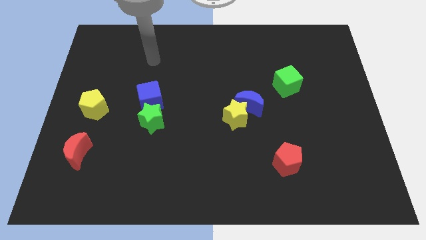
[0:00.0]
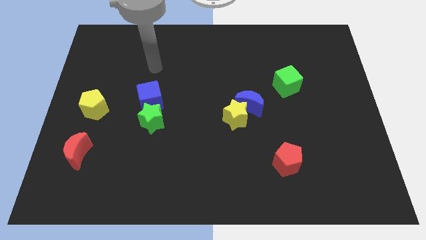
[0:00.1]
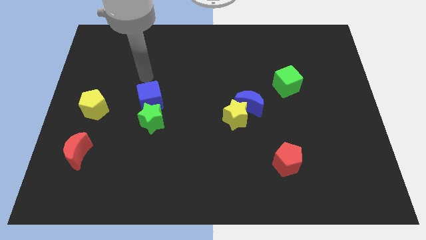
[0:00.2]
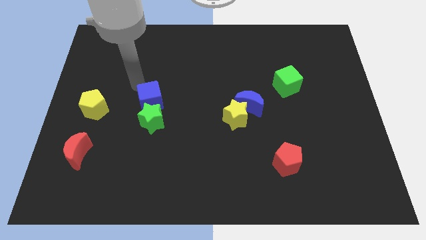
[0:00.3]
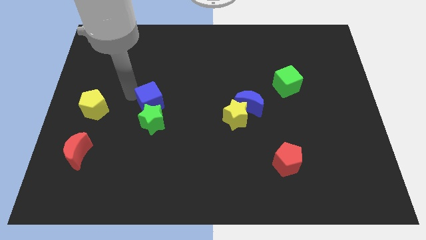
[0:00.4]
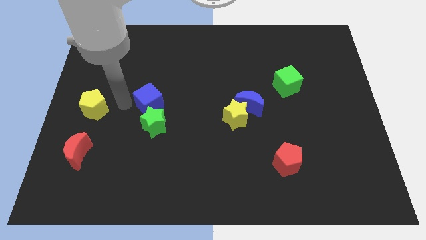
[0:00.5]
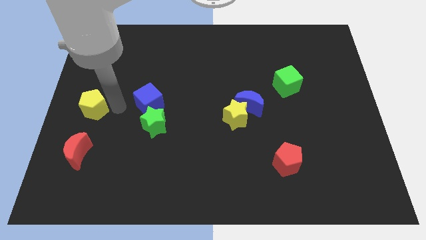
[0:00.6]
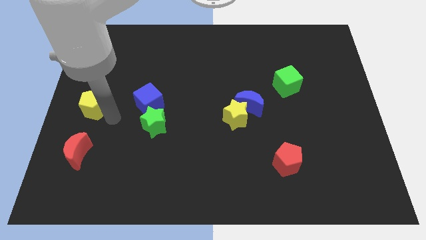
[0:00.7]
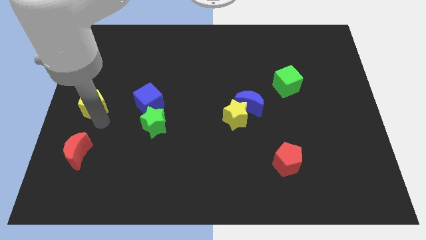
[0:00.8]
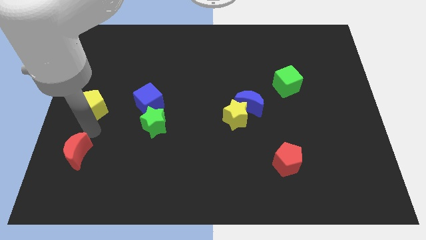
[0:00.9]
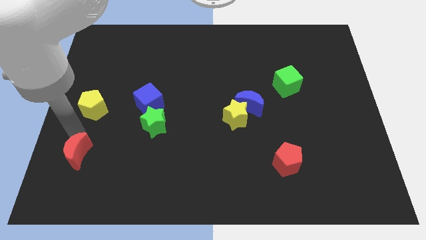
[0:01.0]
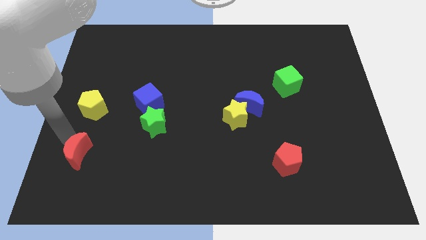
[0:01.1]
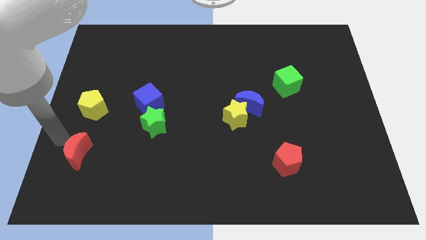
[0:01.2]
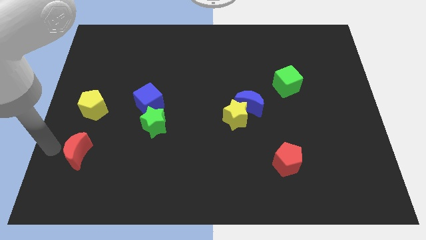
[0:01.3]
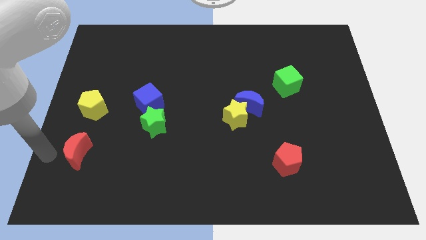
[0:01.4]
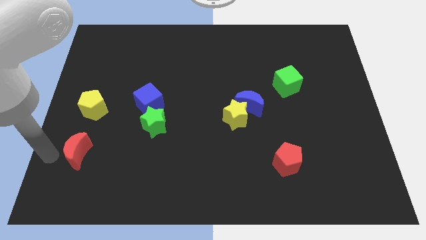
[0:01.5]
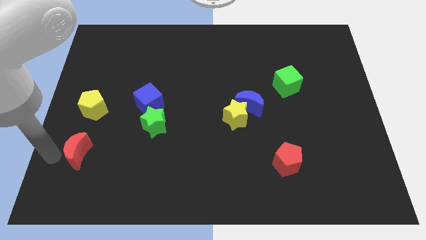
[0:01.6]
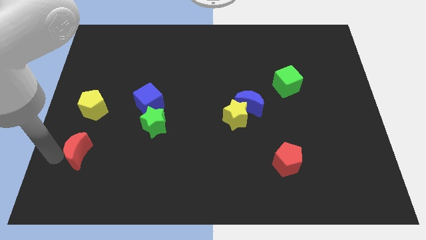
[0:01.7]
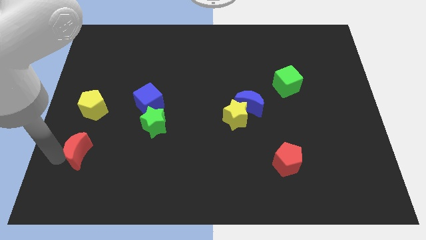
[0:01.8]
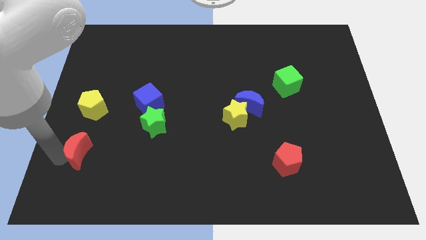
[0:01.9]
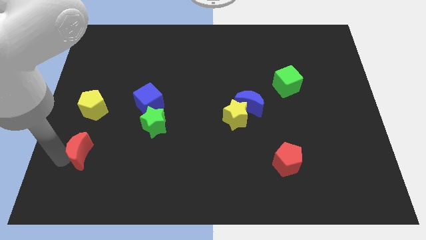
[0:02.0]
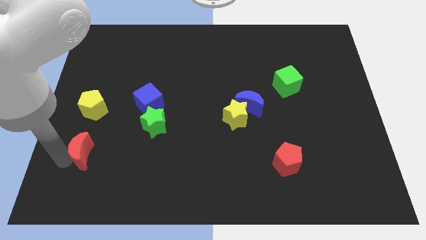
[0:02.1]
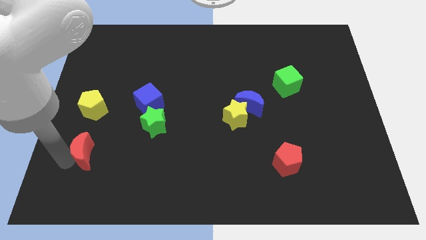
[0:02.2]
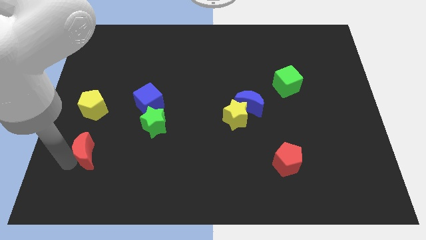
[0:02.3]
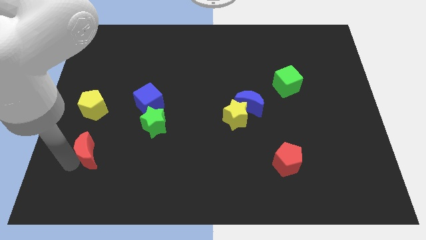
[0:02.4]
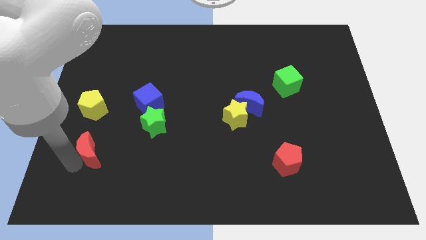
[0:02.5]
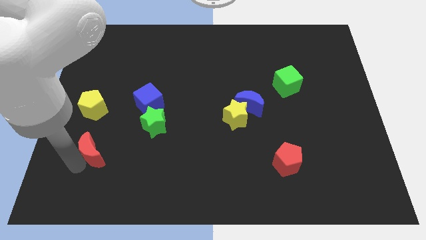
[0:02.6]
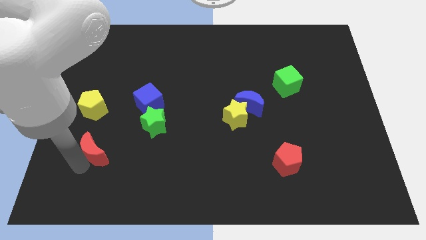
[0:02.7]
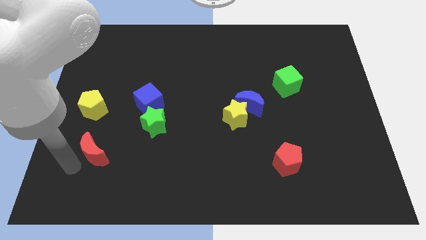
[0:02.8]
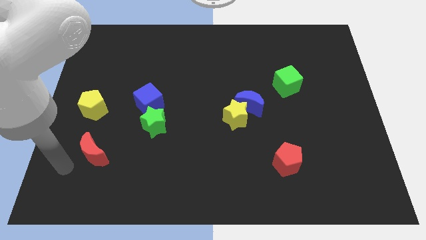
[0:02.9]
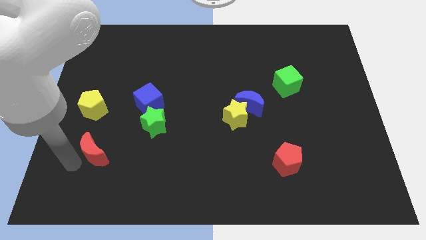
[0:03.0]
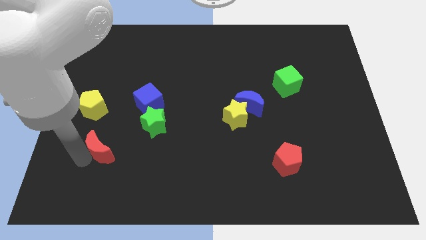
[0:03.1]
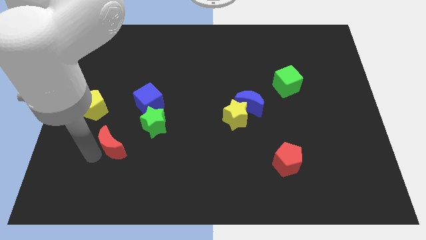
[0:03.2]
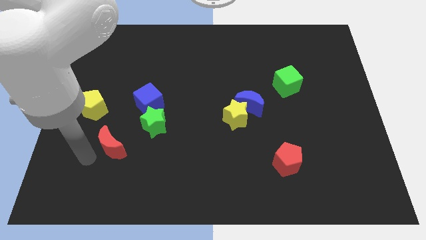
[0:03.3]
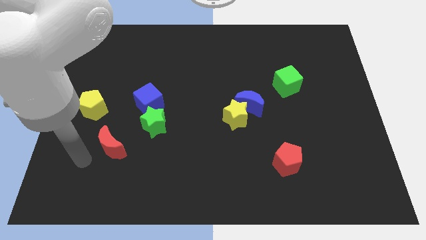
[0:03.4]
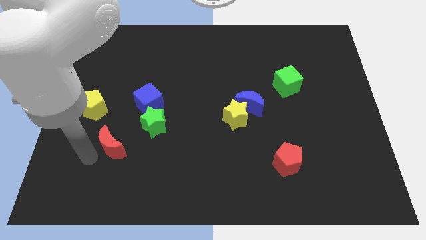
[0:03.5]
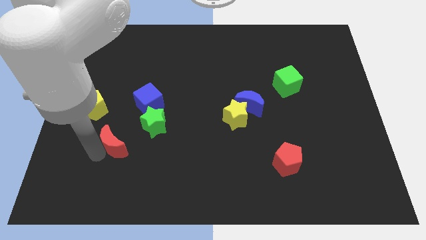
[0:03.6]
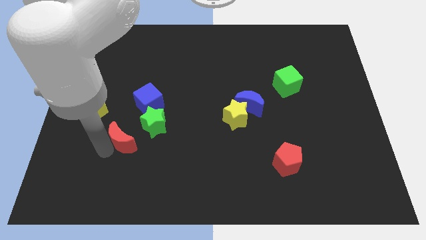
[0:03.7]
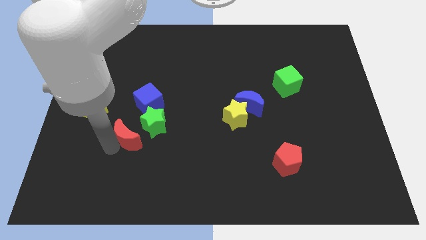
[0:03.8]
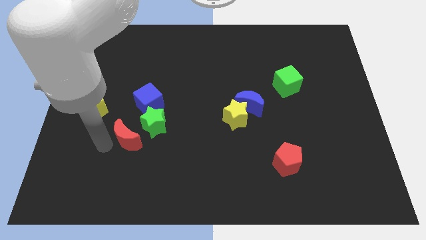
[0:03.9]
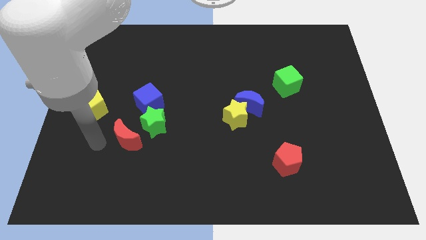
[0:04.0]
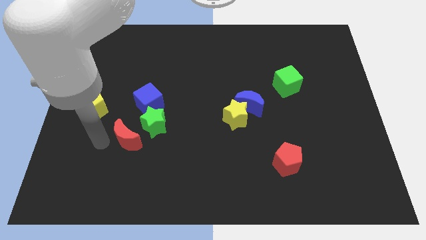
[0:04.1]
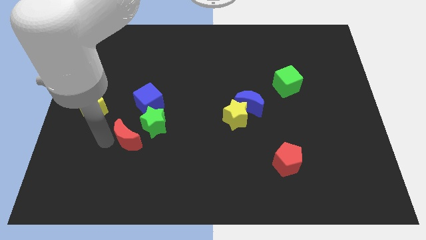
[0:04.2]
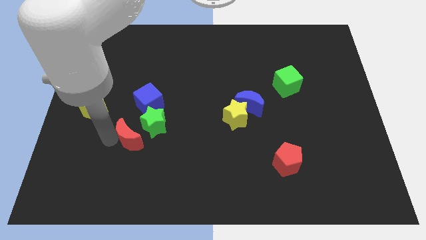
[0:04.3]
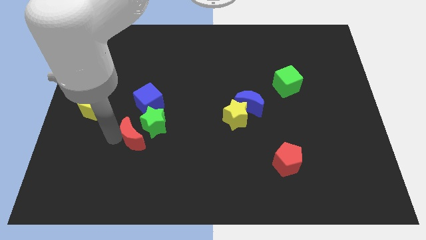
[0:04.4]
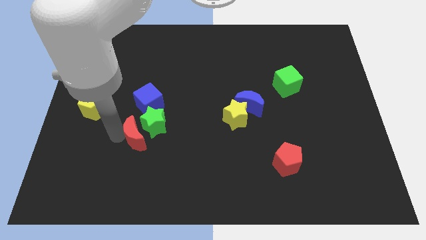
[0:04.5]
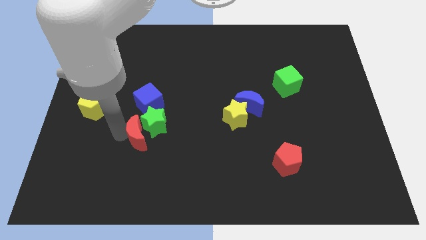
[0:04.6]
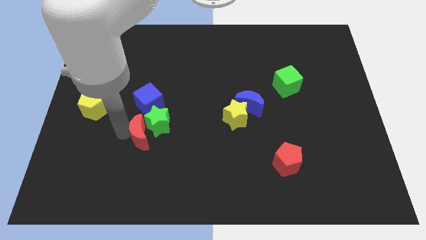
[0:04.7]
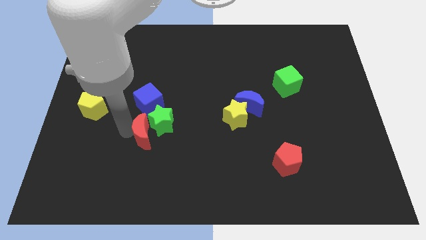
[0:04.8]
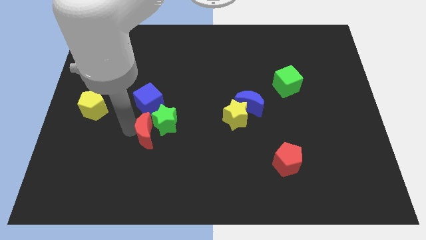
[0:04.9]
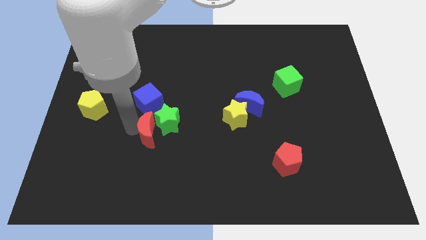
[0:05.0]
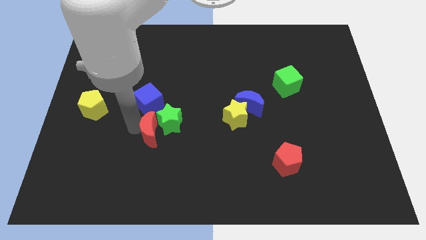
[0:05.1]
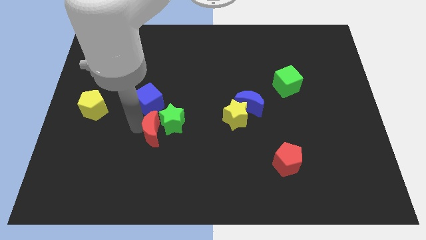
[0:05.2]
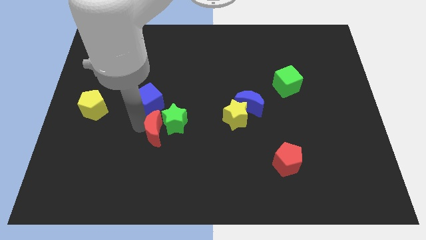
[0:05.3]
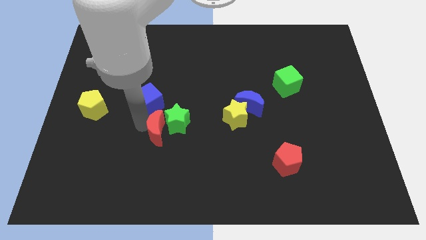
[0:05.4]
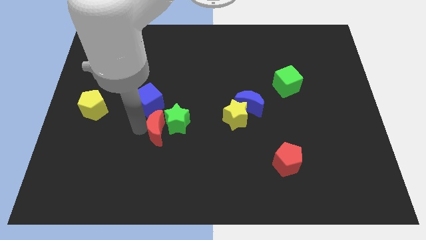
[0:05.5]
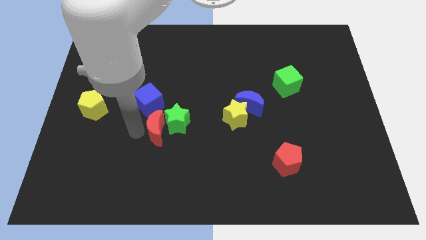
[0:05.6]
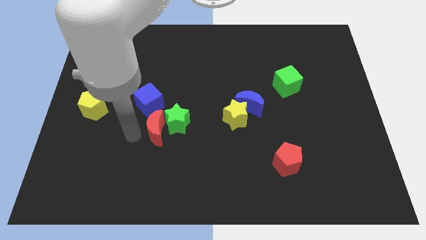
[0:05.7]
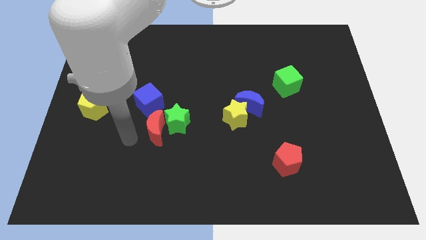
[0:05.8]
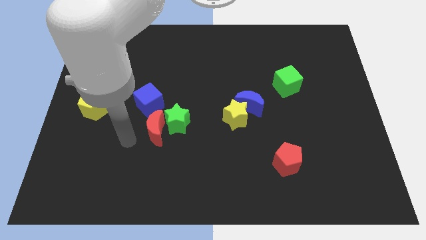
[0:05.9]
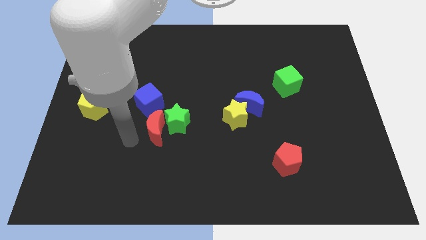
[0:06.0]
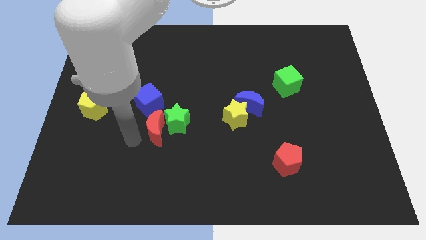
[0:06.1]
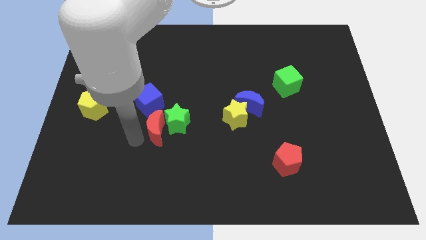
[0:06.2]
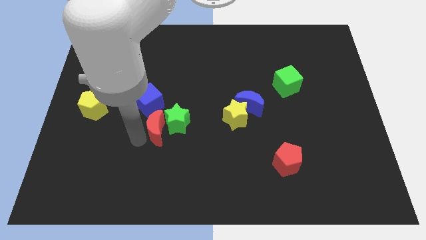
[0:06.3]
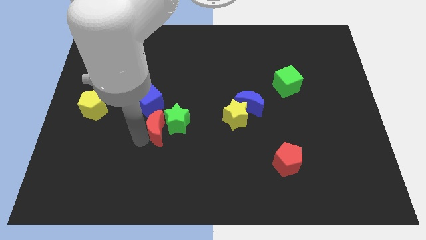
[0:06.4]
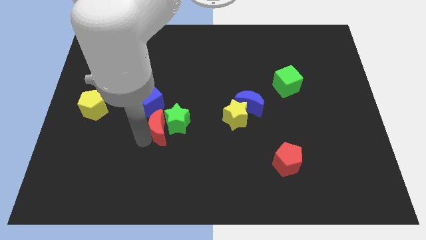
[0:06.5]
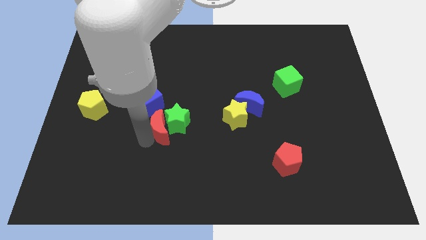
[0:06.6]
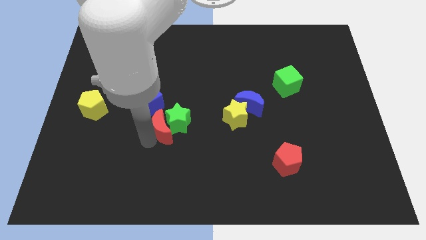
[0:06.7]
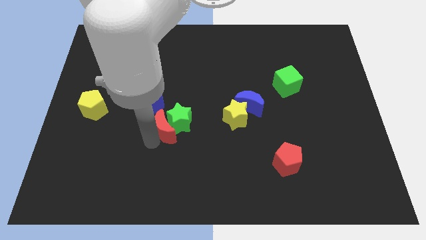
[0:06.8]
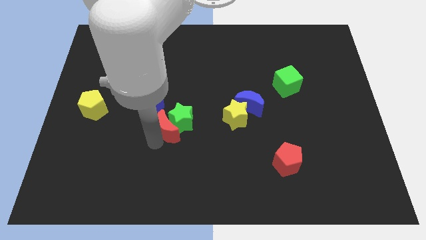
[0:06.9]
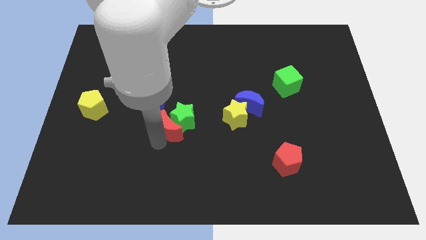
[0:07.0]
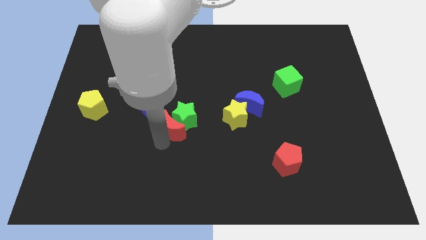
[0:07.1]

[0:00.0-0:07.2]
slide the red moon to the center
